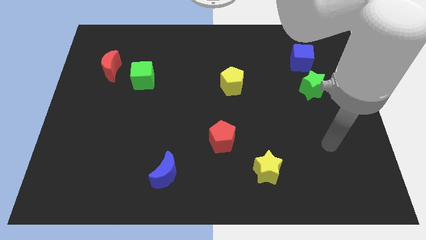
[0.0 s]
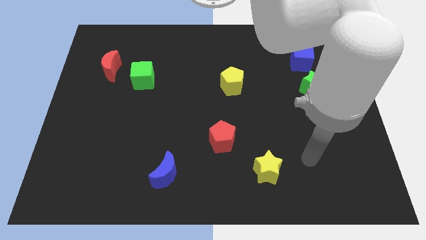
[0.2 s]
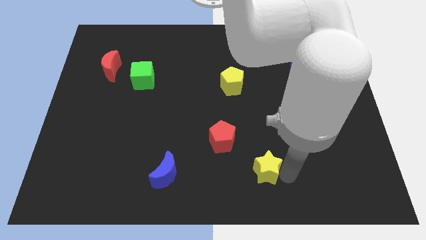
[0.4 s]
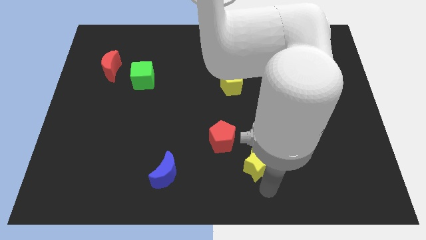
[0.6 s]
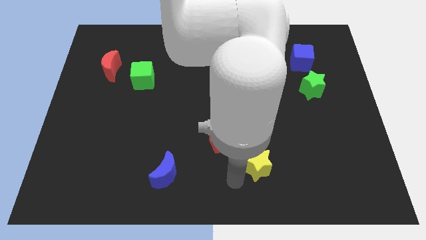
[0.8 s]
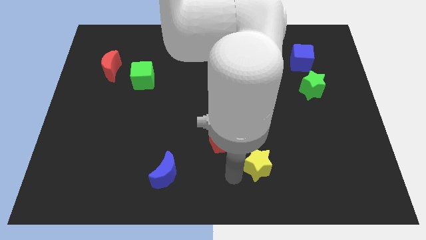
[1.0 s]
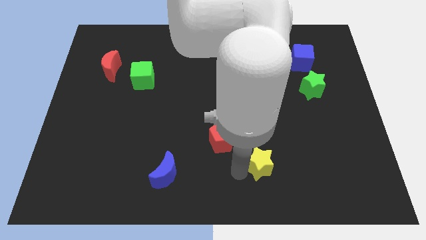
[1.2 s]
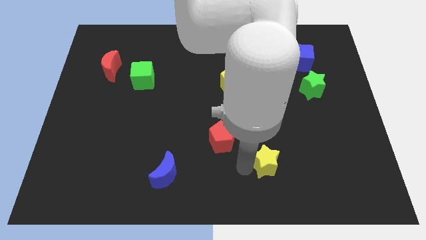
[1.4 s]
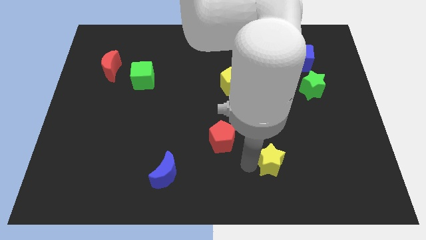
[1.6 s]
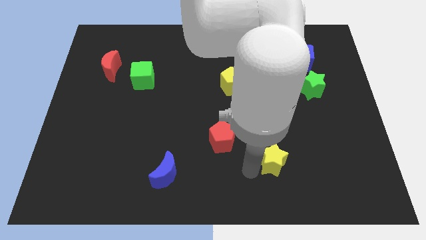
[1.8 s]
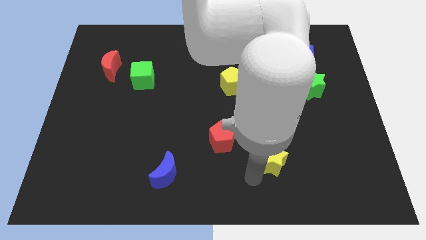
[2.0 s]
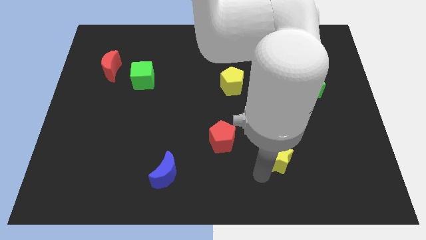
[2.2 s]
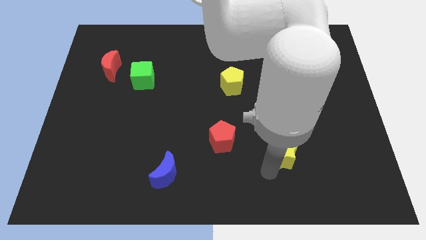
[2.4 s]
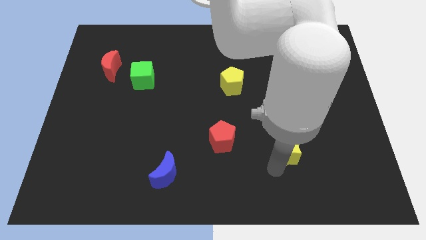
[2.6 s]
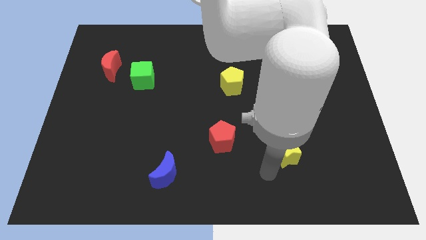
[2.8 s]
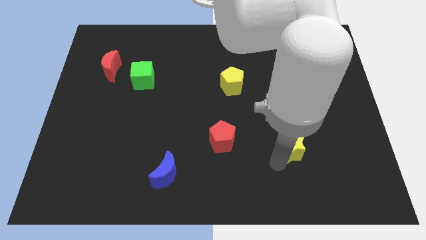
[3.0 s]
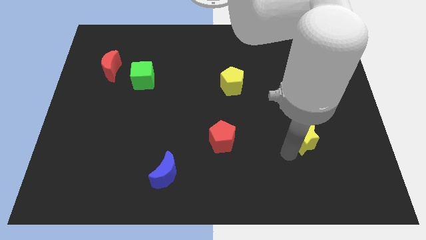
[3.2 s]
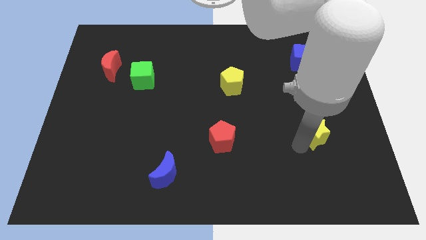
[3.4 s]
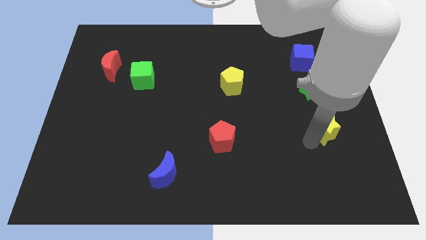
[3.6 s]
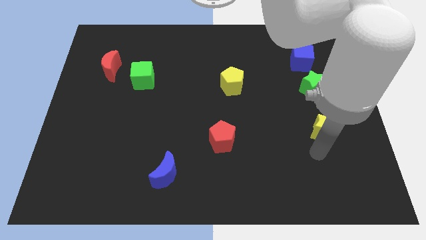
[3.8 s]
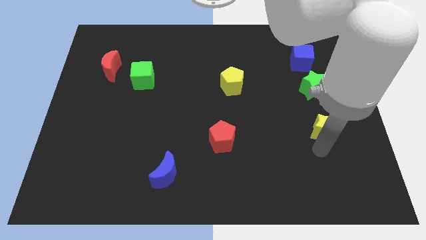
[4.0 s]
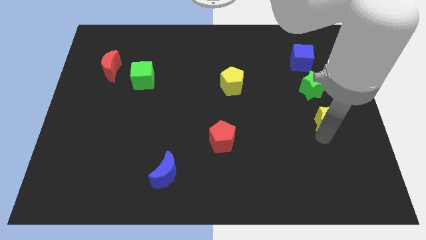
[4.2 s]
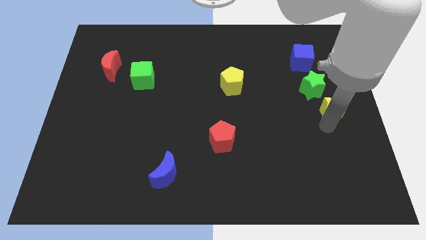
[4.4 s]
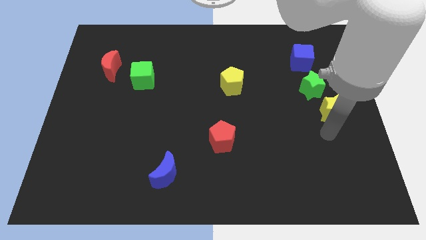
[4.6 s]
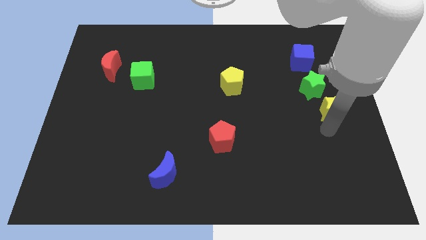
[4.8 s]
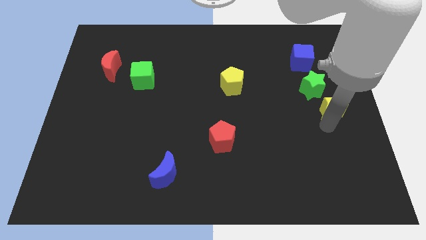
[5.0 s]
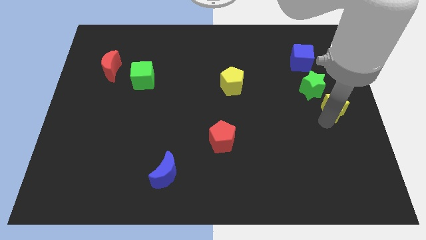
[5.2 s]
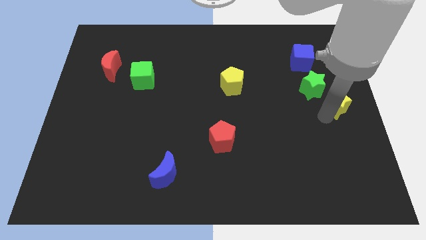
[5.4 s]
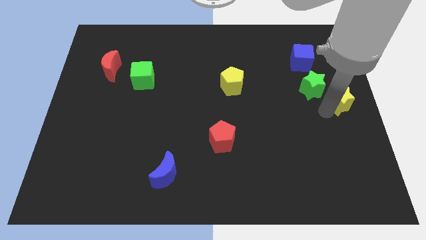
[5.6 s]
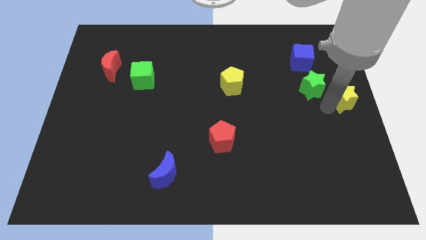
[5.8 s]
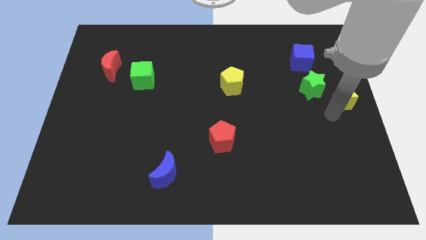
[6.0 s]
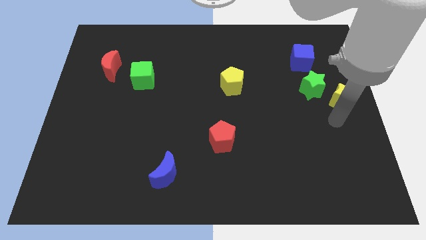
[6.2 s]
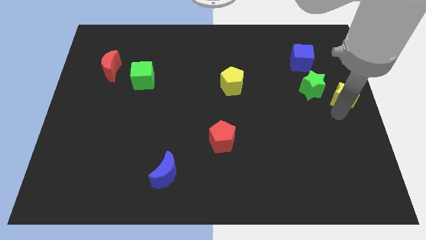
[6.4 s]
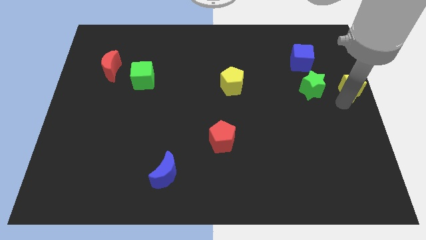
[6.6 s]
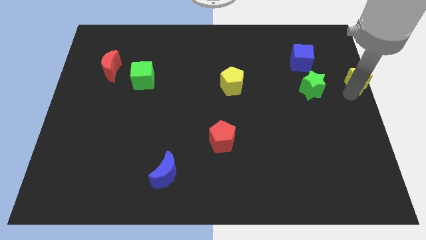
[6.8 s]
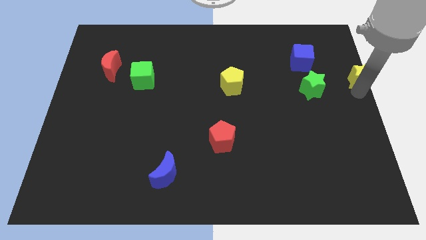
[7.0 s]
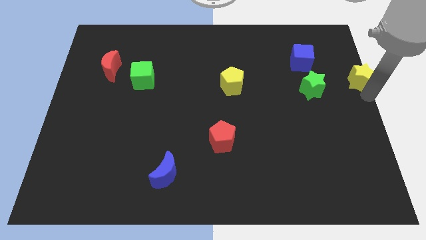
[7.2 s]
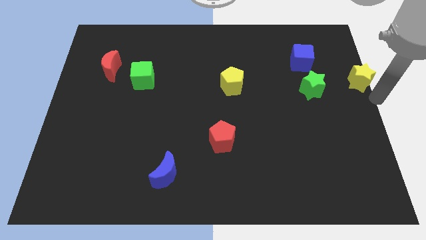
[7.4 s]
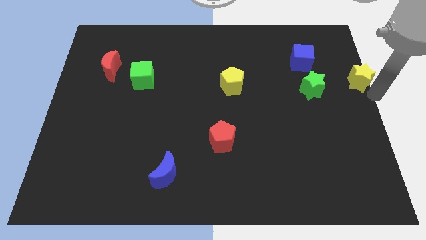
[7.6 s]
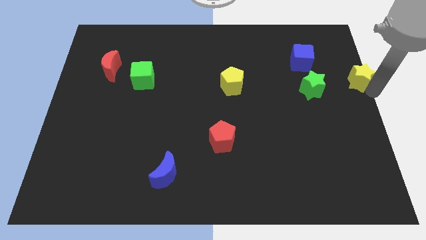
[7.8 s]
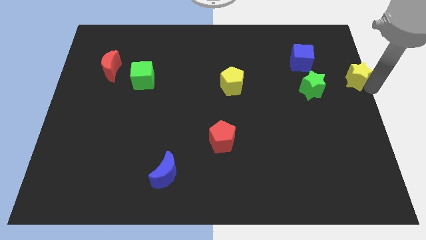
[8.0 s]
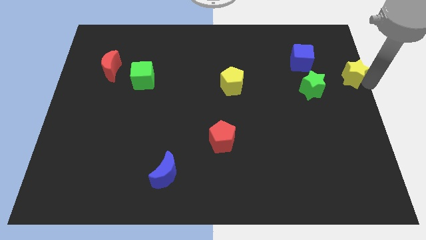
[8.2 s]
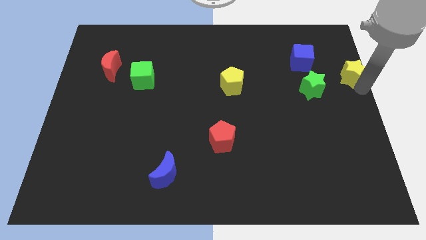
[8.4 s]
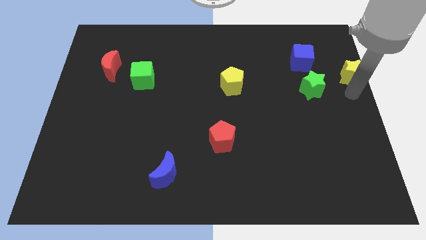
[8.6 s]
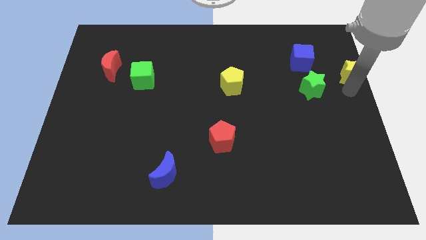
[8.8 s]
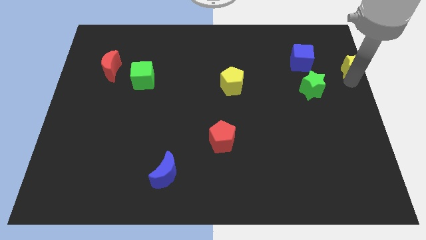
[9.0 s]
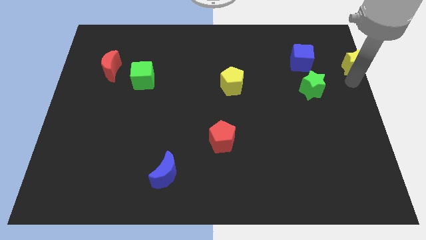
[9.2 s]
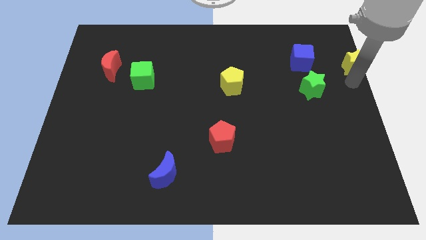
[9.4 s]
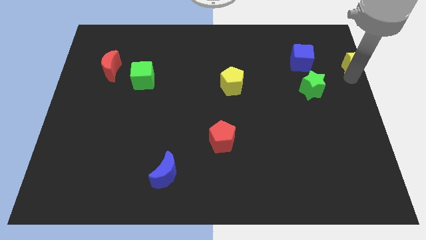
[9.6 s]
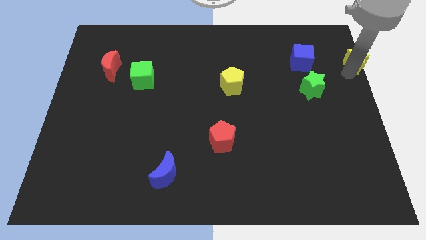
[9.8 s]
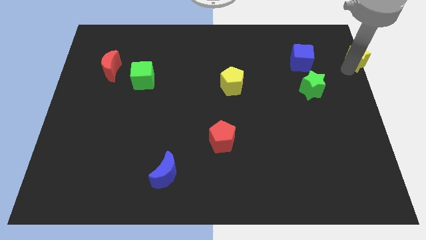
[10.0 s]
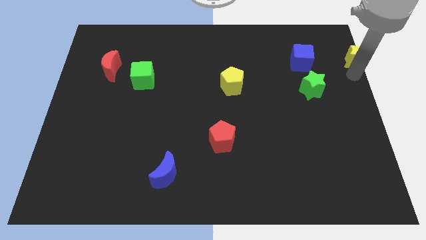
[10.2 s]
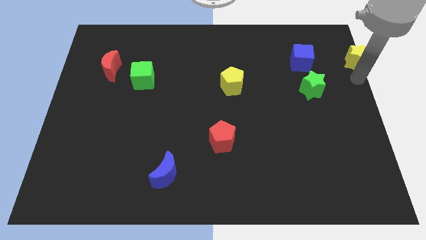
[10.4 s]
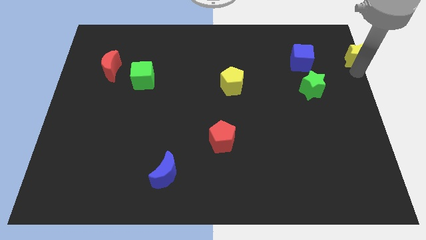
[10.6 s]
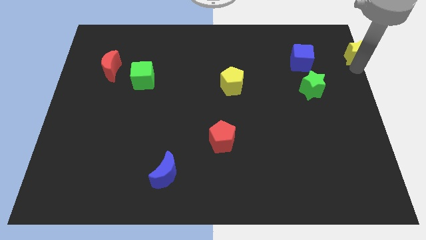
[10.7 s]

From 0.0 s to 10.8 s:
slide the yellow star to the top right of the board
